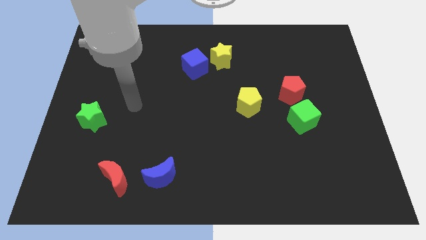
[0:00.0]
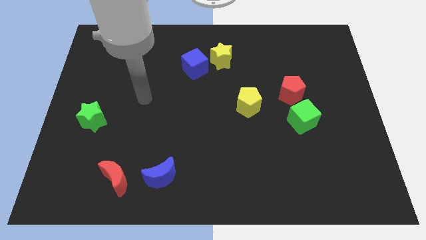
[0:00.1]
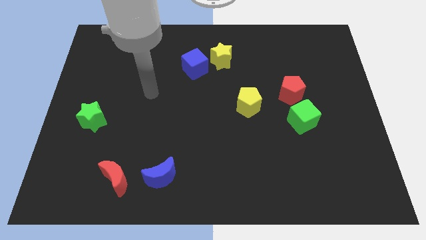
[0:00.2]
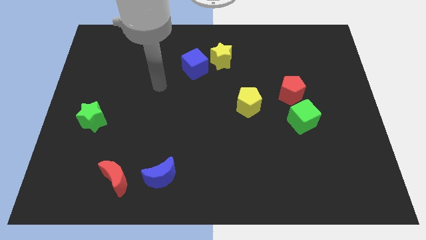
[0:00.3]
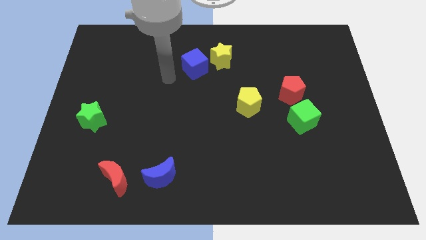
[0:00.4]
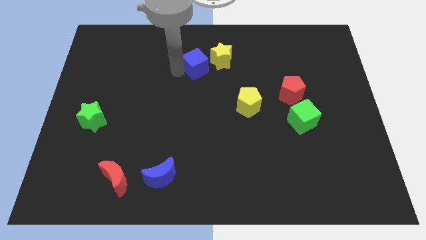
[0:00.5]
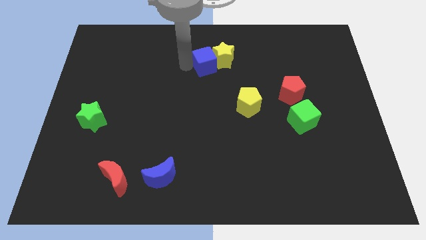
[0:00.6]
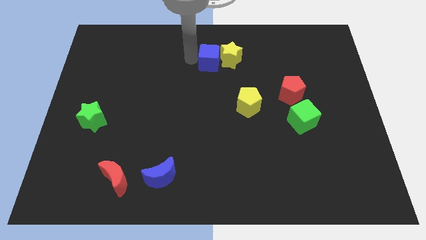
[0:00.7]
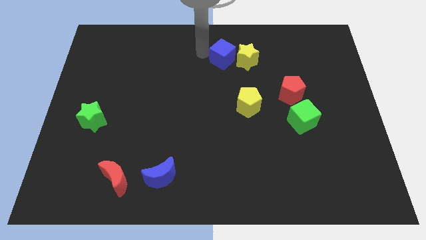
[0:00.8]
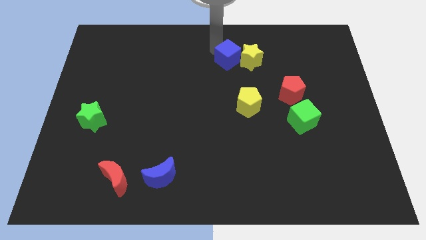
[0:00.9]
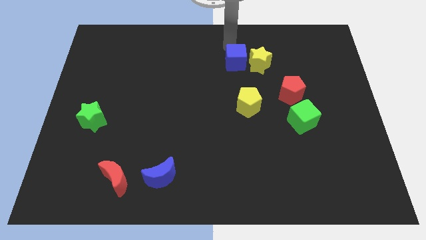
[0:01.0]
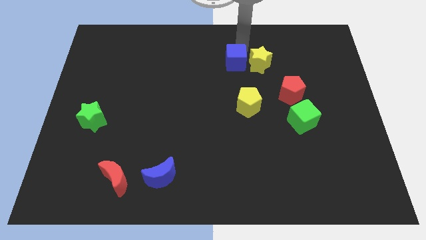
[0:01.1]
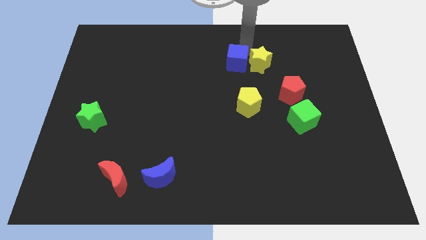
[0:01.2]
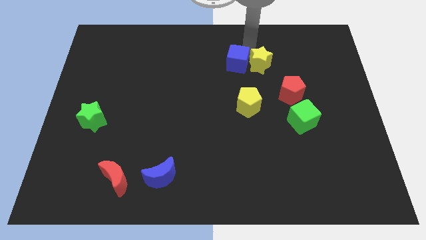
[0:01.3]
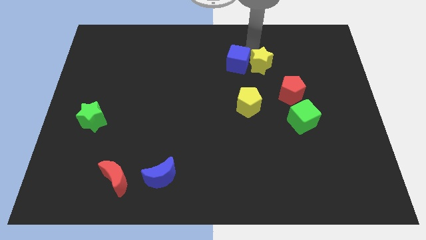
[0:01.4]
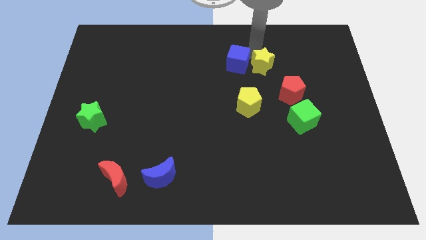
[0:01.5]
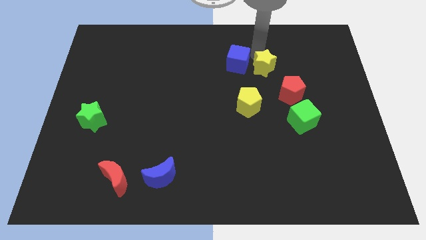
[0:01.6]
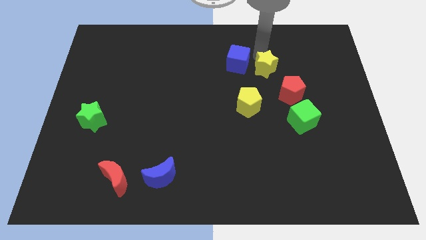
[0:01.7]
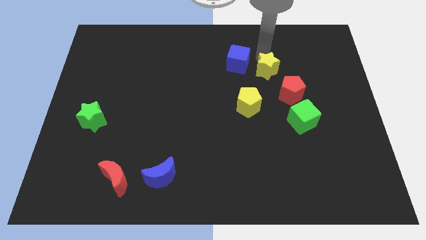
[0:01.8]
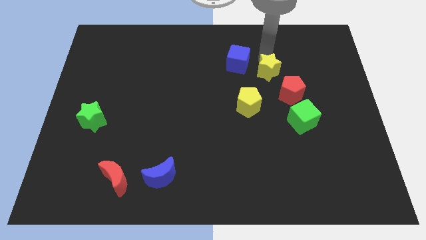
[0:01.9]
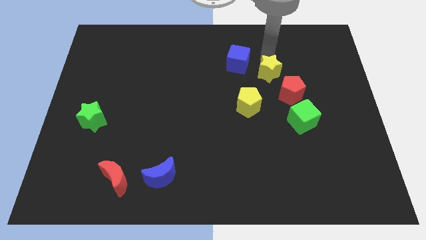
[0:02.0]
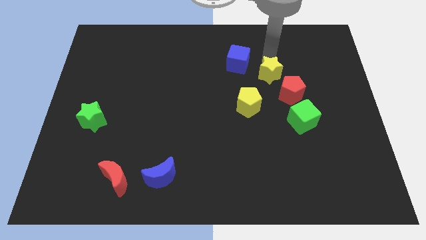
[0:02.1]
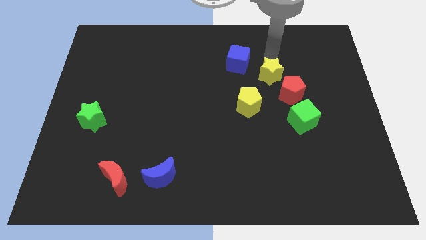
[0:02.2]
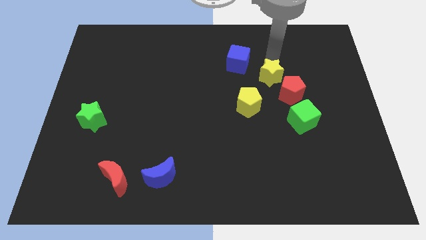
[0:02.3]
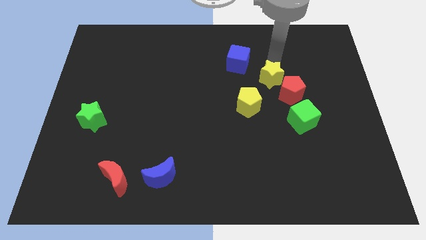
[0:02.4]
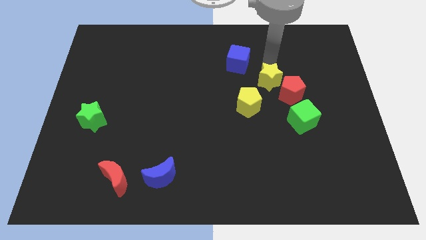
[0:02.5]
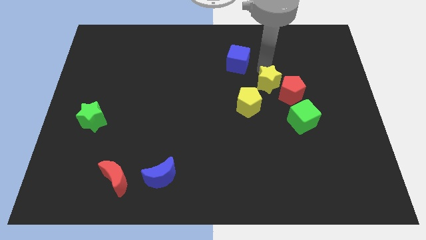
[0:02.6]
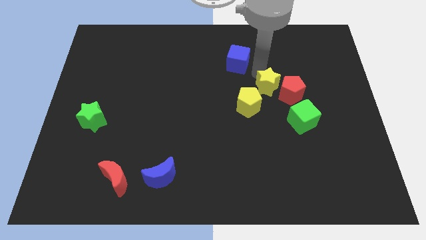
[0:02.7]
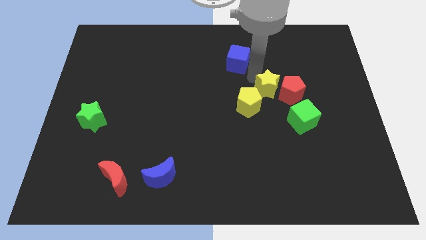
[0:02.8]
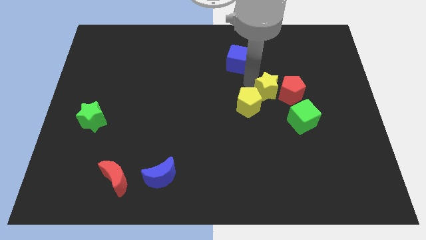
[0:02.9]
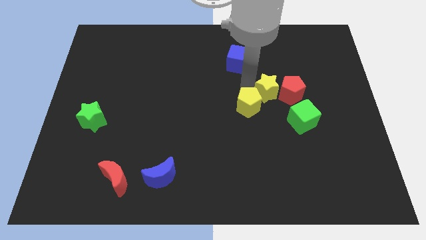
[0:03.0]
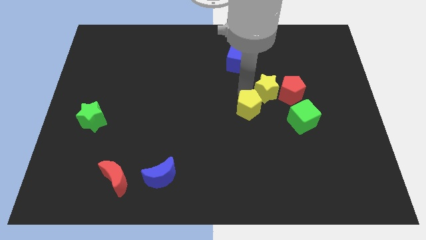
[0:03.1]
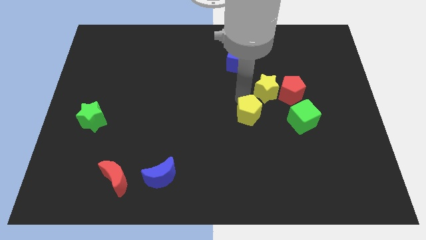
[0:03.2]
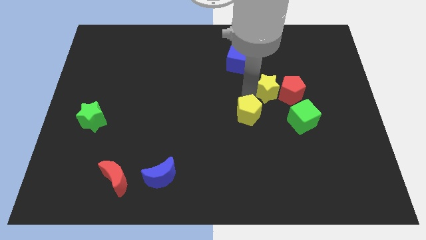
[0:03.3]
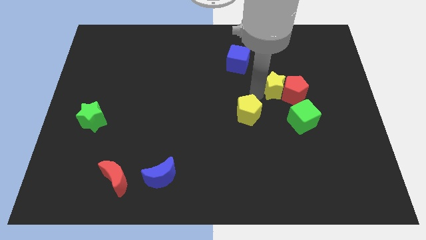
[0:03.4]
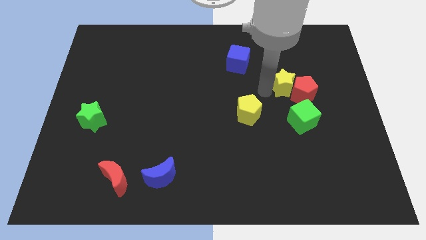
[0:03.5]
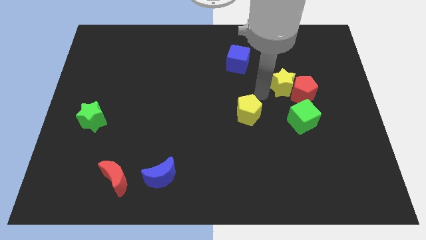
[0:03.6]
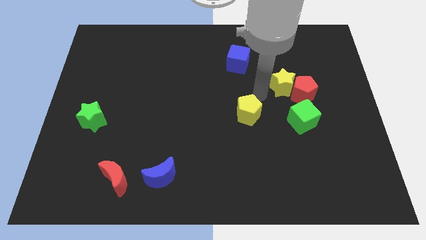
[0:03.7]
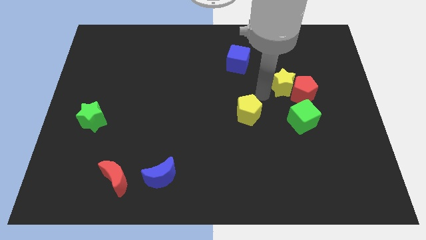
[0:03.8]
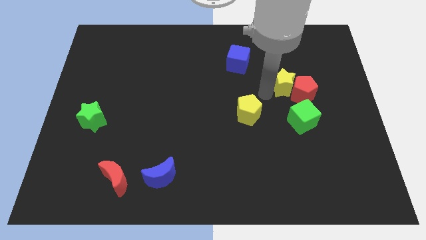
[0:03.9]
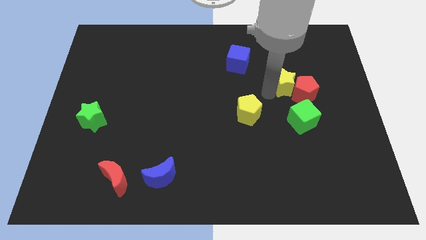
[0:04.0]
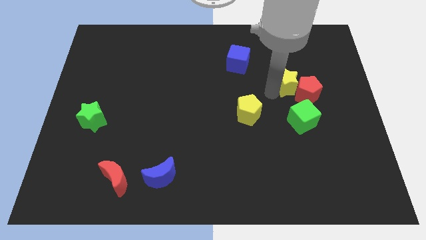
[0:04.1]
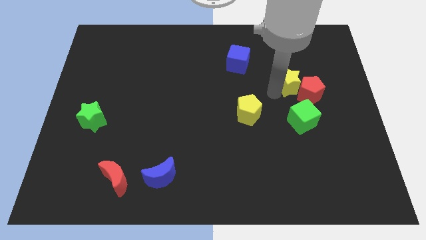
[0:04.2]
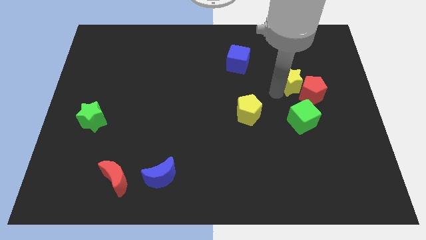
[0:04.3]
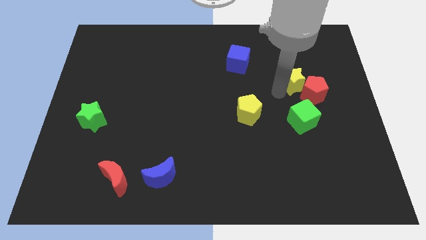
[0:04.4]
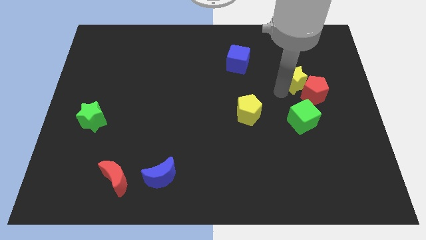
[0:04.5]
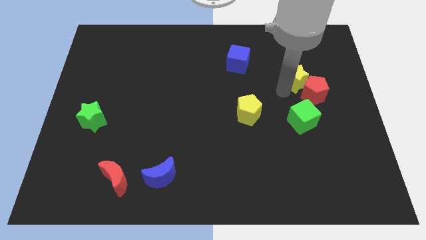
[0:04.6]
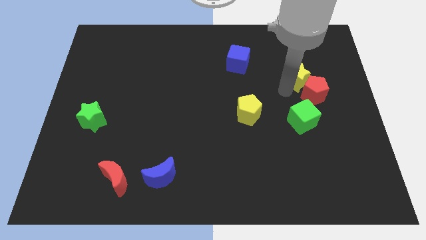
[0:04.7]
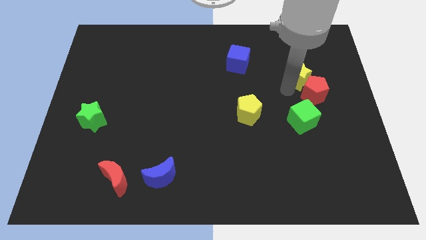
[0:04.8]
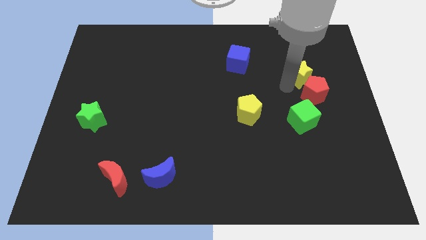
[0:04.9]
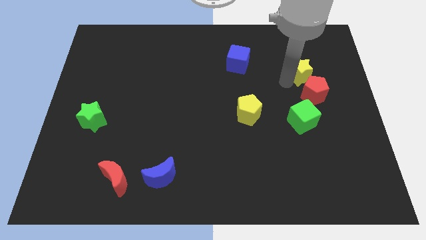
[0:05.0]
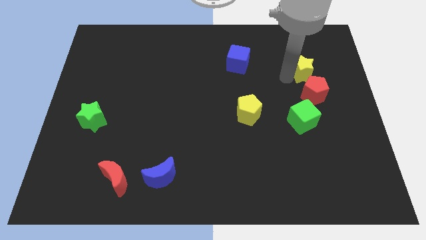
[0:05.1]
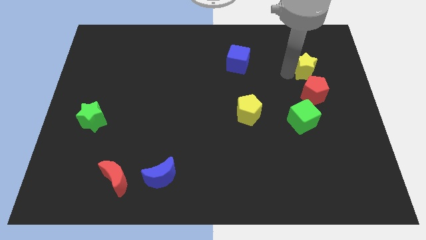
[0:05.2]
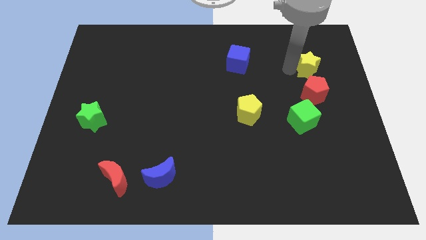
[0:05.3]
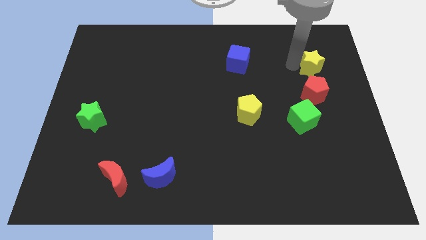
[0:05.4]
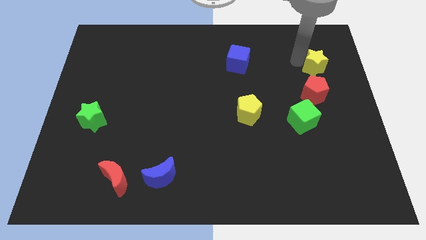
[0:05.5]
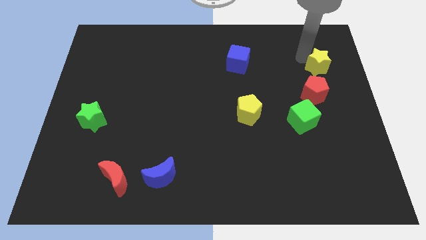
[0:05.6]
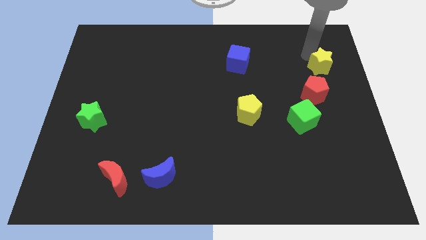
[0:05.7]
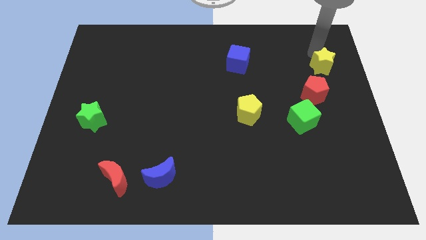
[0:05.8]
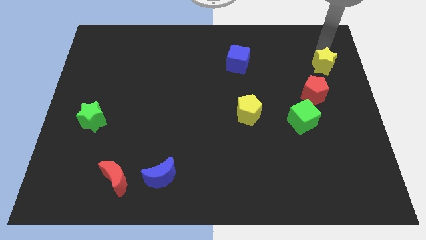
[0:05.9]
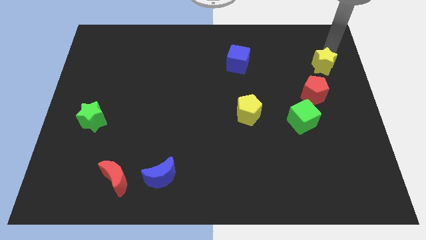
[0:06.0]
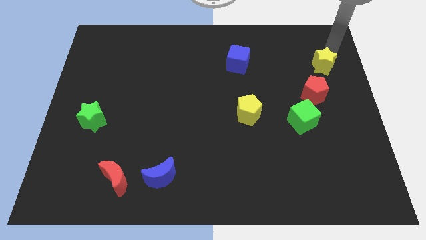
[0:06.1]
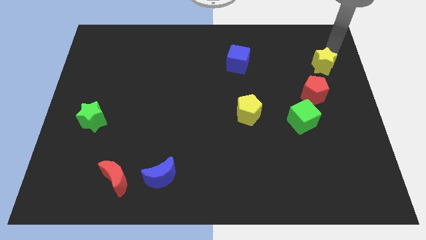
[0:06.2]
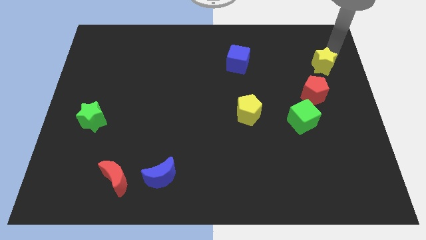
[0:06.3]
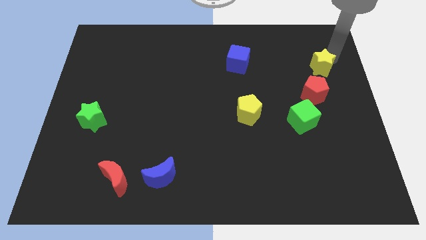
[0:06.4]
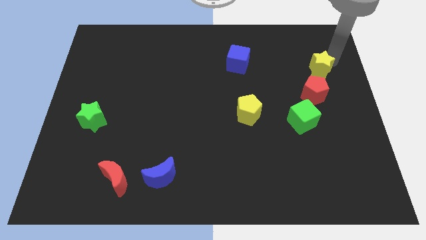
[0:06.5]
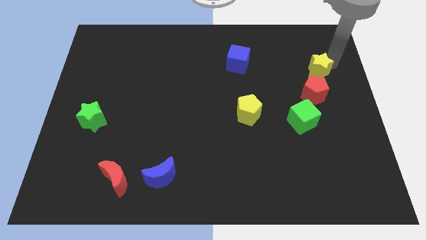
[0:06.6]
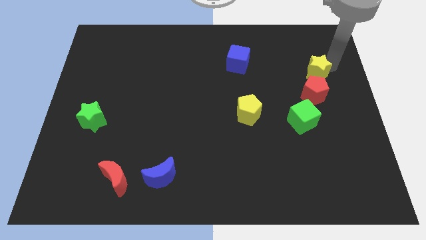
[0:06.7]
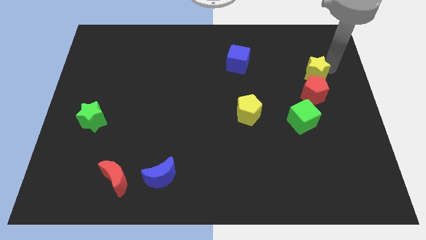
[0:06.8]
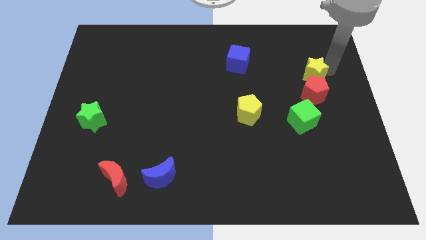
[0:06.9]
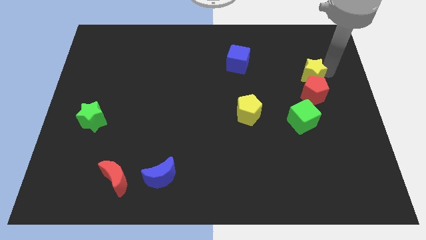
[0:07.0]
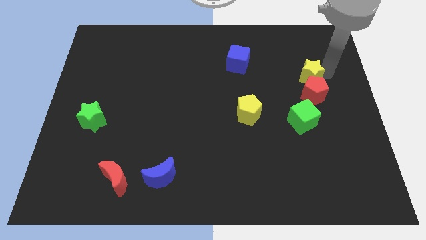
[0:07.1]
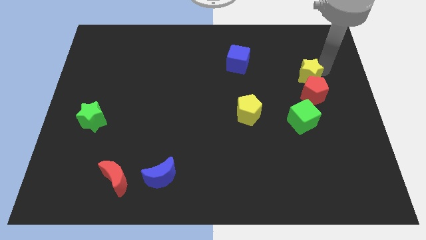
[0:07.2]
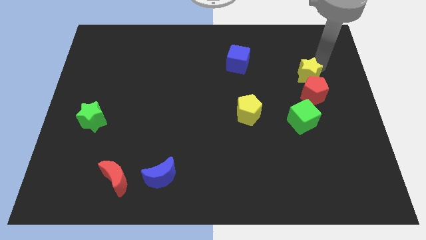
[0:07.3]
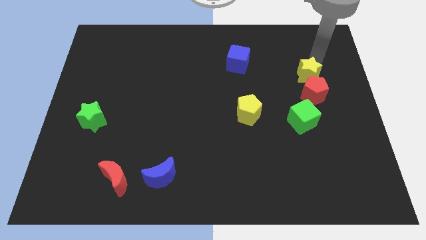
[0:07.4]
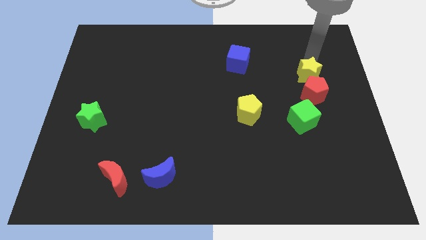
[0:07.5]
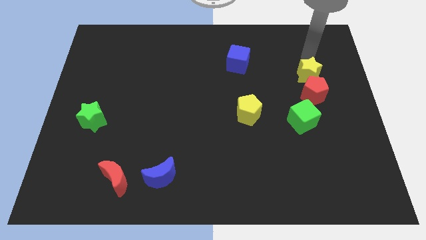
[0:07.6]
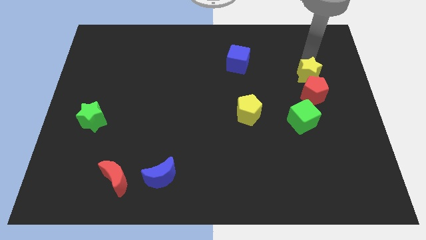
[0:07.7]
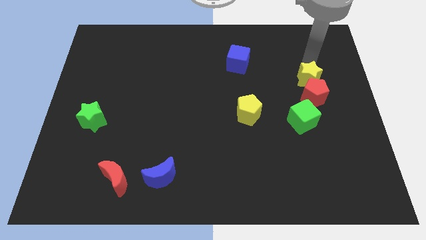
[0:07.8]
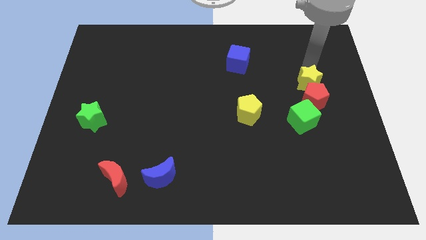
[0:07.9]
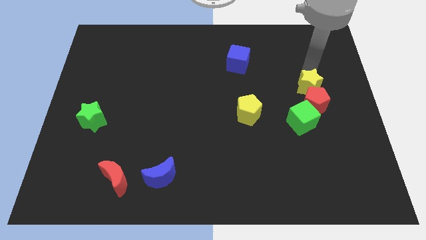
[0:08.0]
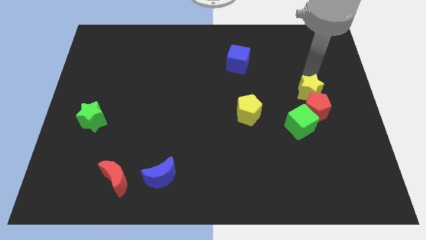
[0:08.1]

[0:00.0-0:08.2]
slide the yellow star down and then right
